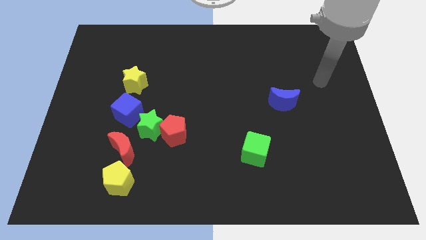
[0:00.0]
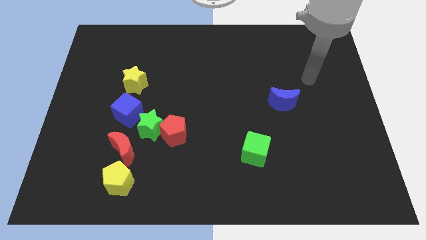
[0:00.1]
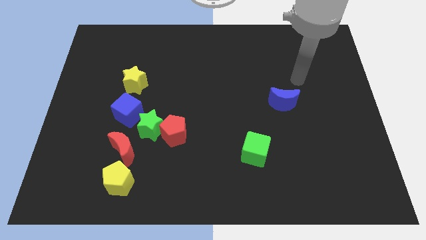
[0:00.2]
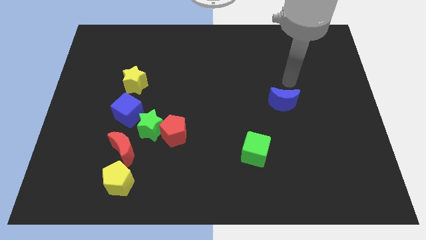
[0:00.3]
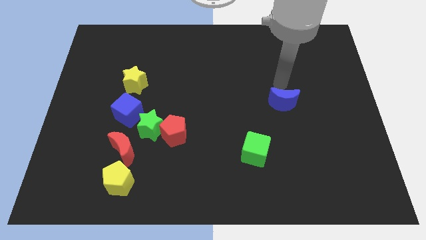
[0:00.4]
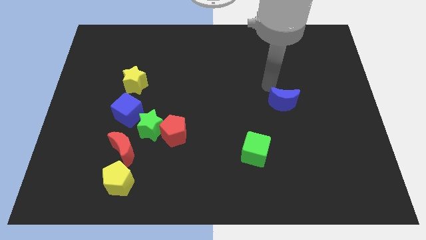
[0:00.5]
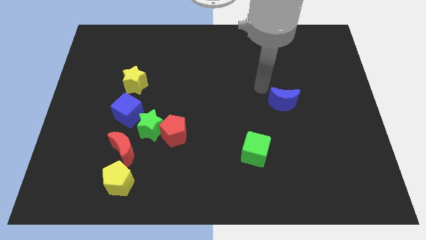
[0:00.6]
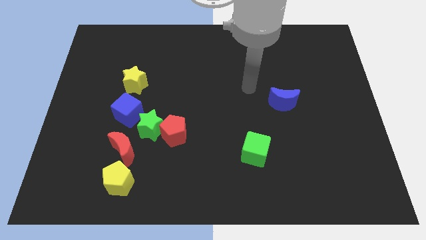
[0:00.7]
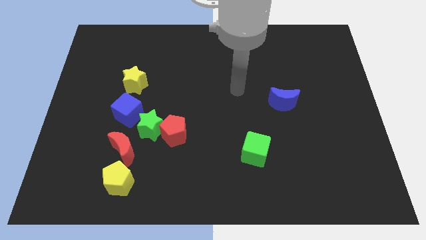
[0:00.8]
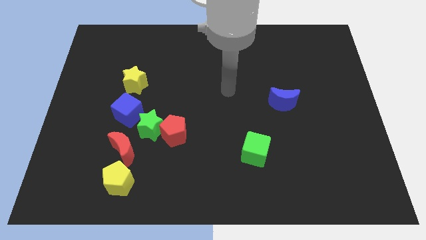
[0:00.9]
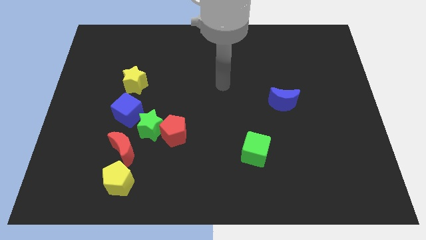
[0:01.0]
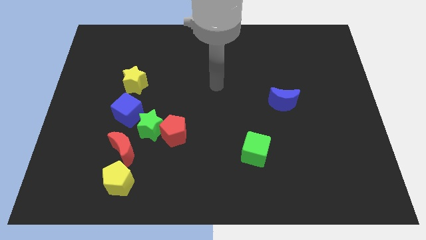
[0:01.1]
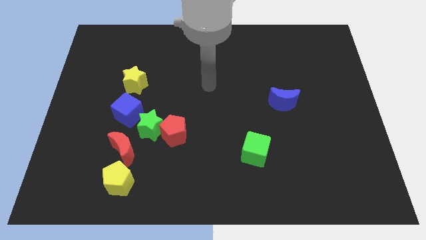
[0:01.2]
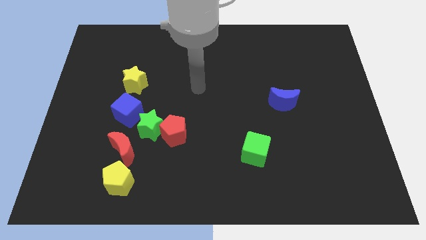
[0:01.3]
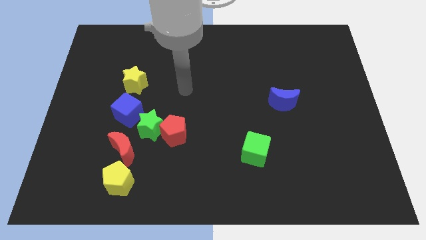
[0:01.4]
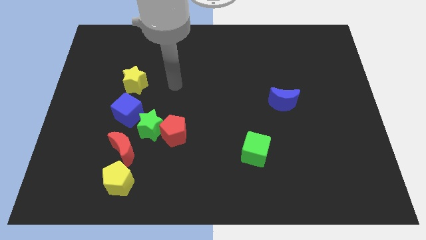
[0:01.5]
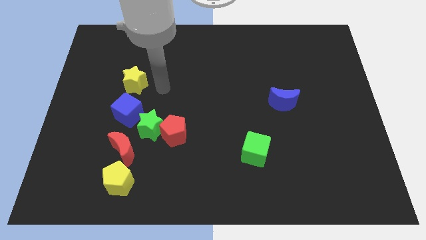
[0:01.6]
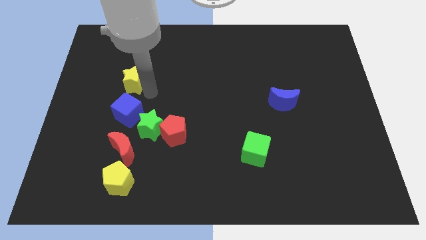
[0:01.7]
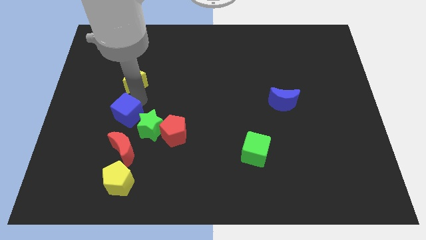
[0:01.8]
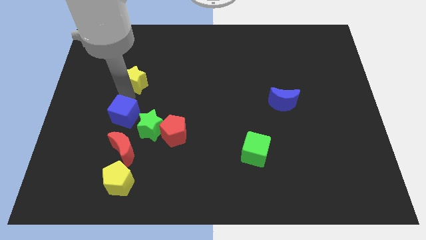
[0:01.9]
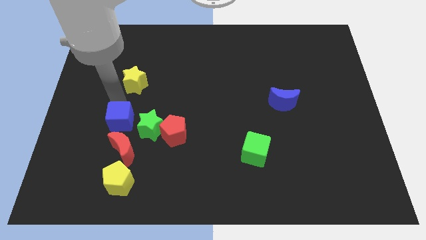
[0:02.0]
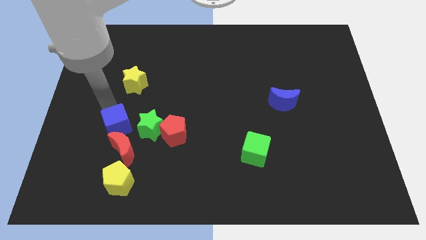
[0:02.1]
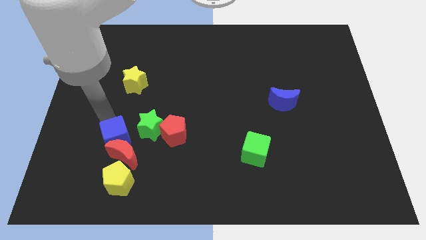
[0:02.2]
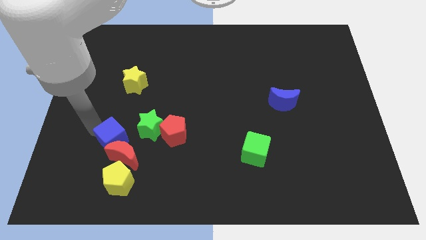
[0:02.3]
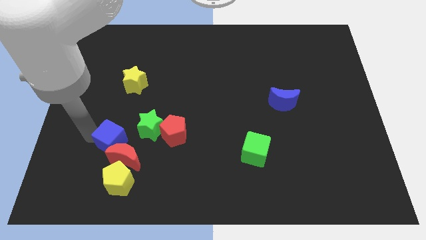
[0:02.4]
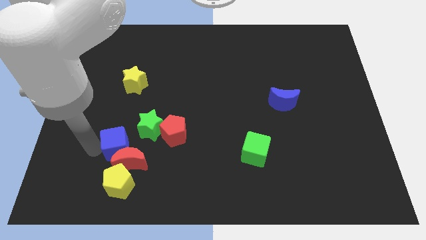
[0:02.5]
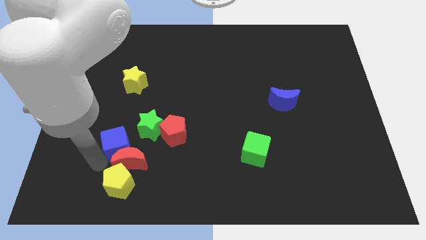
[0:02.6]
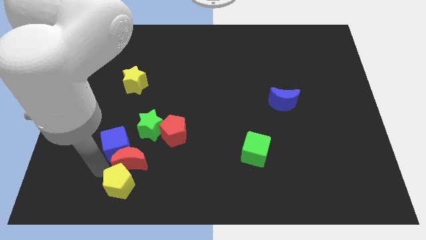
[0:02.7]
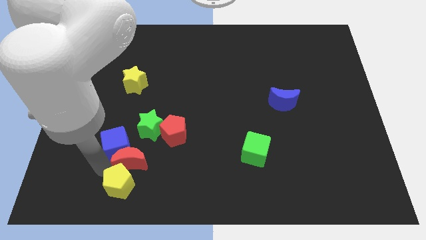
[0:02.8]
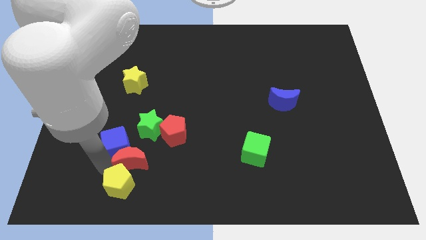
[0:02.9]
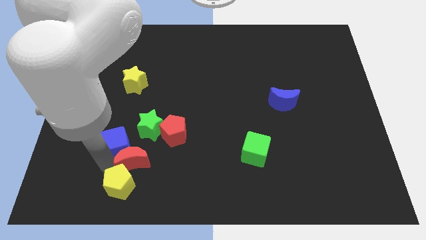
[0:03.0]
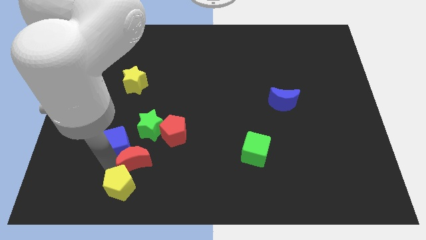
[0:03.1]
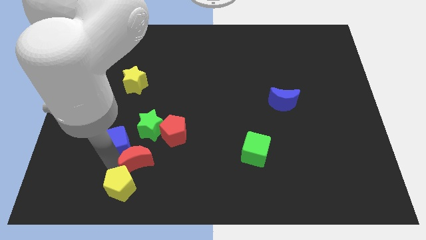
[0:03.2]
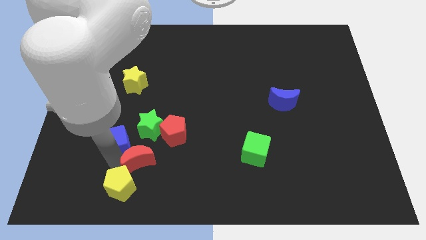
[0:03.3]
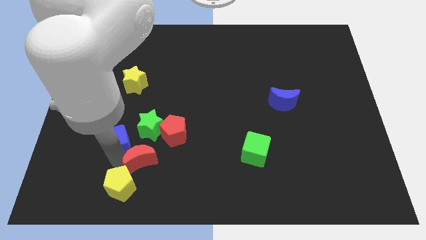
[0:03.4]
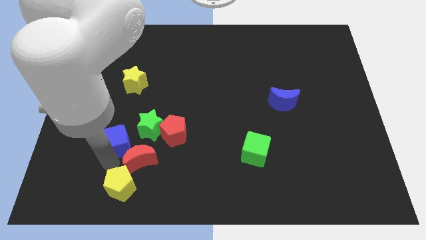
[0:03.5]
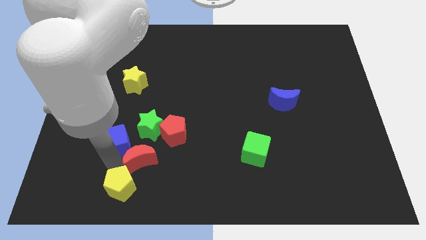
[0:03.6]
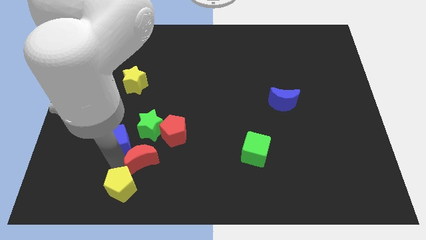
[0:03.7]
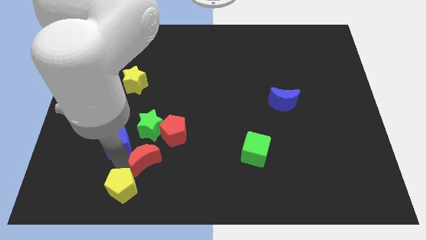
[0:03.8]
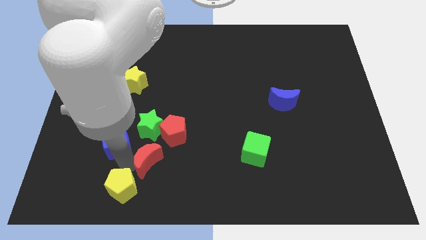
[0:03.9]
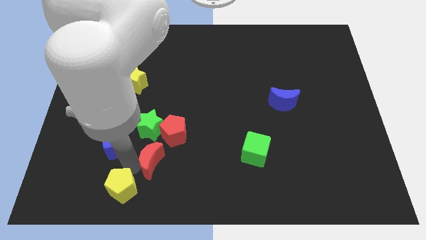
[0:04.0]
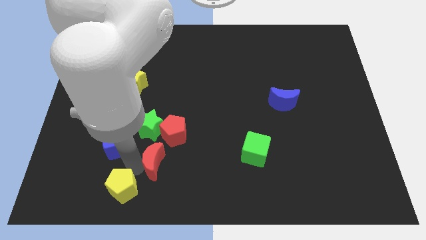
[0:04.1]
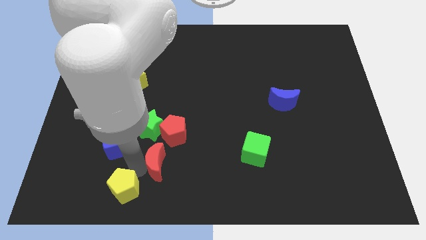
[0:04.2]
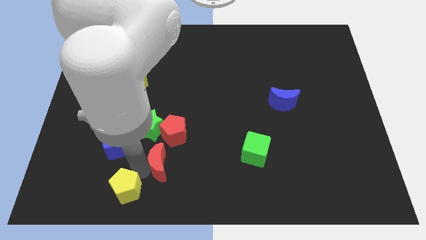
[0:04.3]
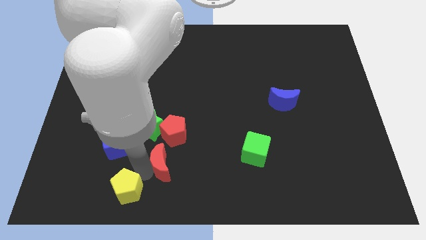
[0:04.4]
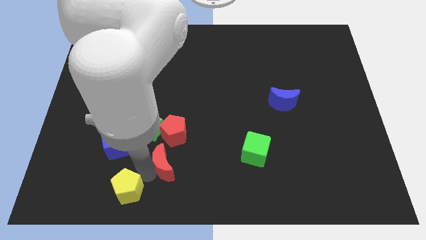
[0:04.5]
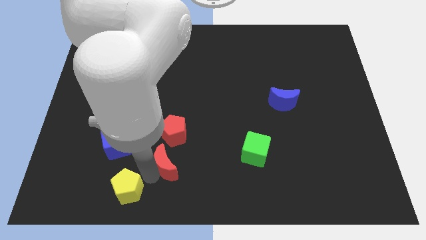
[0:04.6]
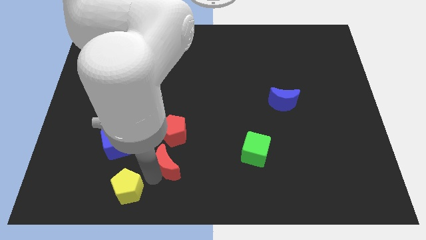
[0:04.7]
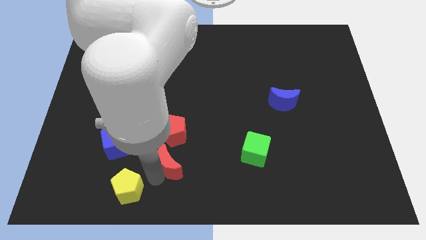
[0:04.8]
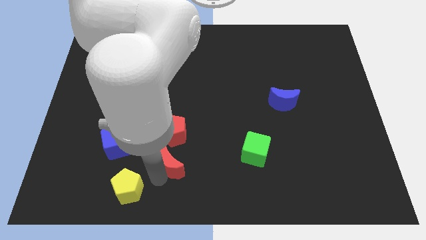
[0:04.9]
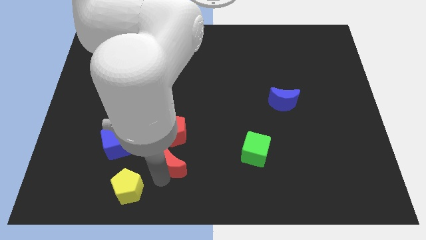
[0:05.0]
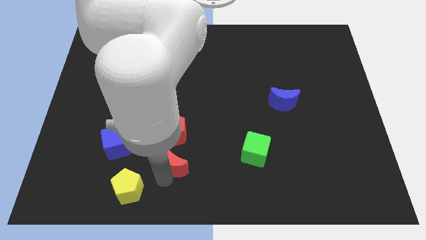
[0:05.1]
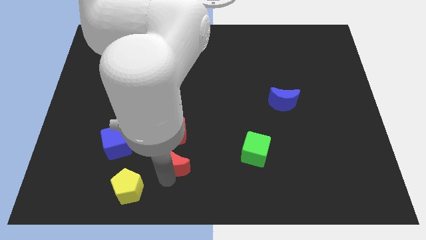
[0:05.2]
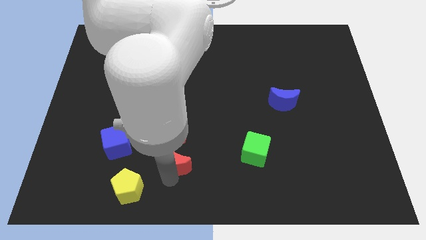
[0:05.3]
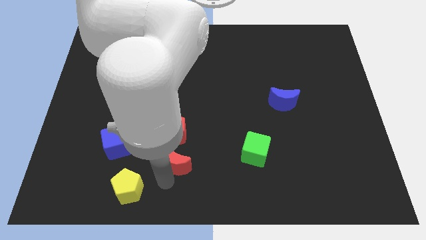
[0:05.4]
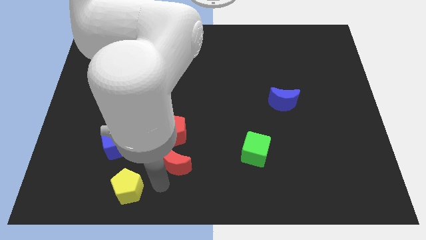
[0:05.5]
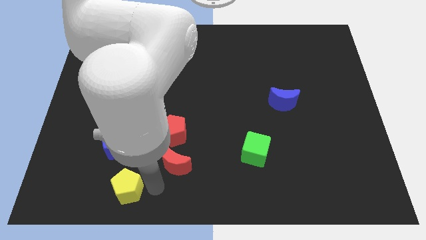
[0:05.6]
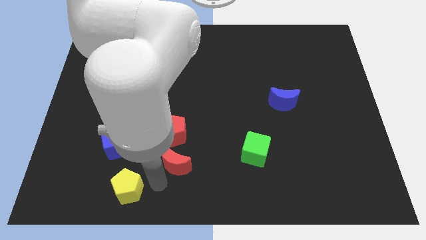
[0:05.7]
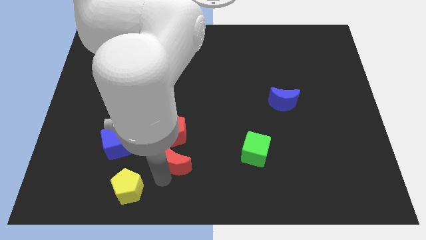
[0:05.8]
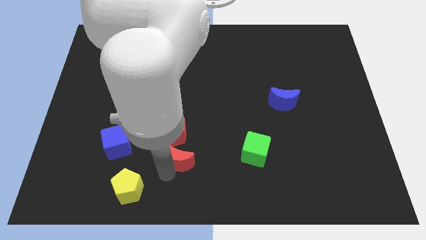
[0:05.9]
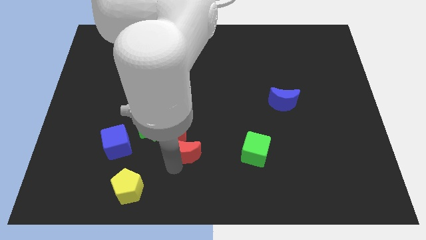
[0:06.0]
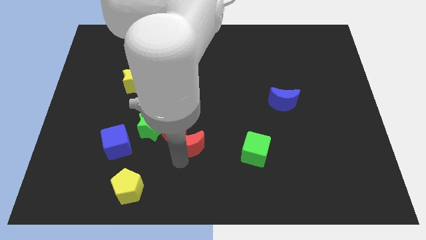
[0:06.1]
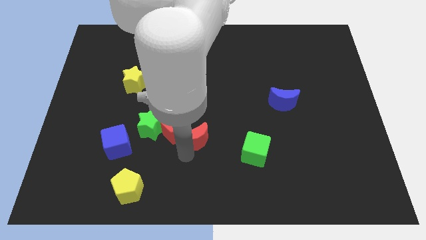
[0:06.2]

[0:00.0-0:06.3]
move the red moon to the right of the green star
